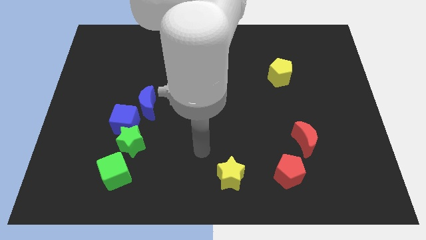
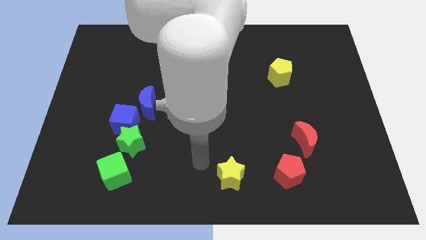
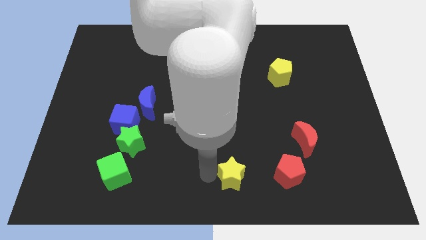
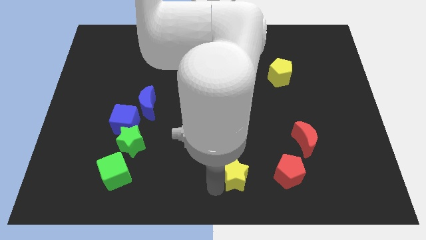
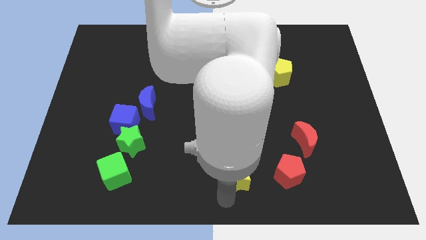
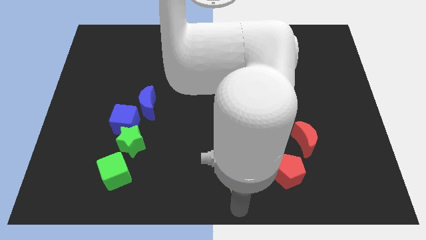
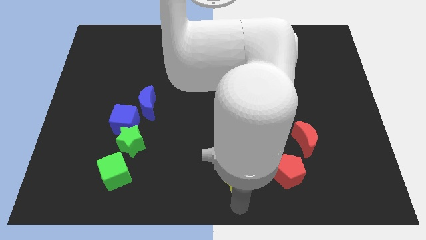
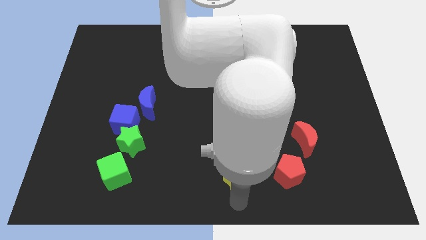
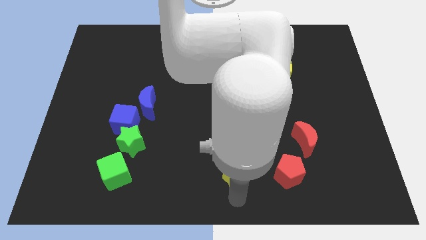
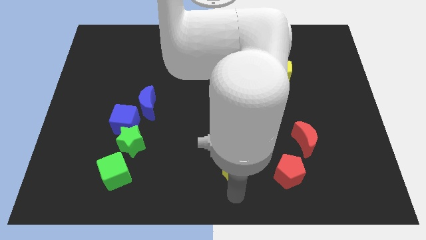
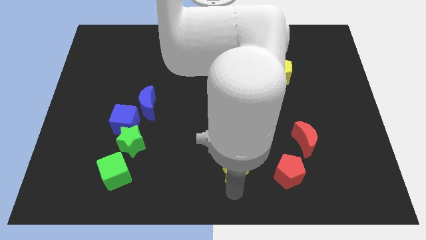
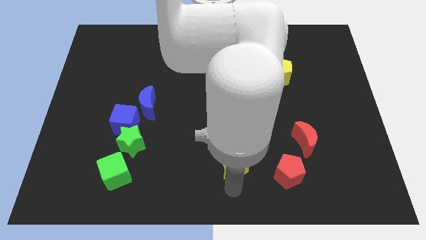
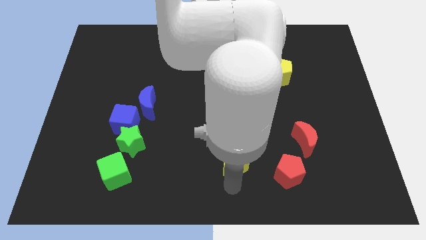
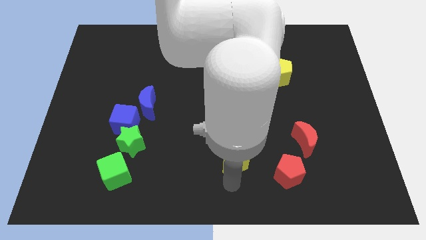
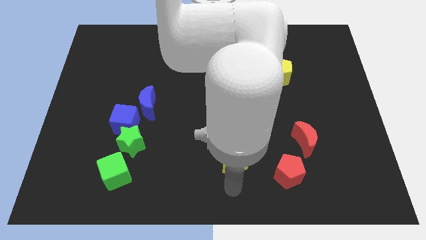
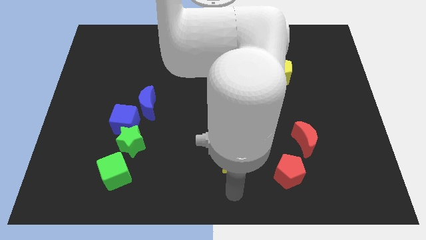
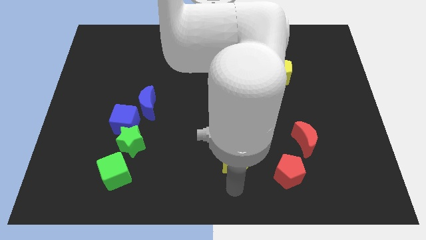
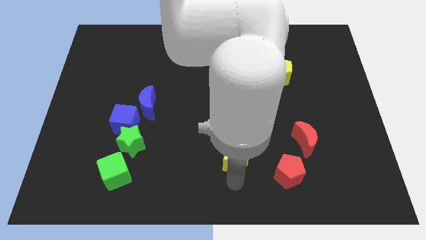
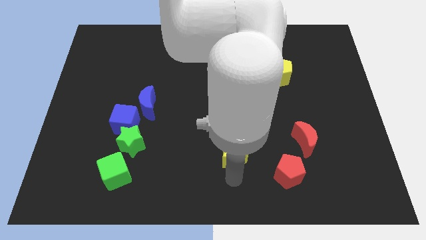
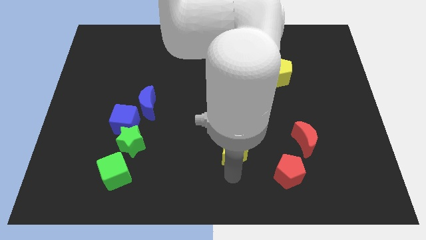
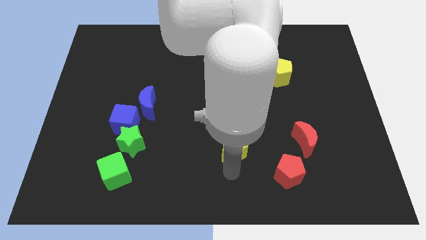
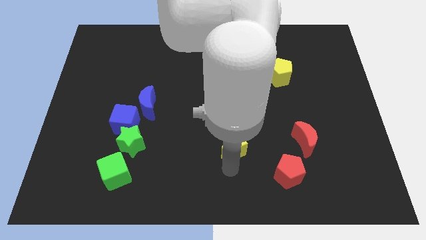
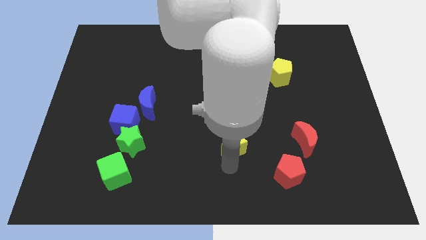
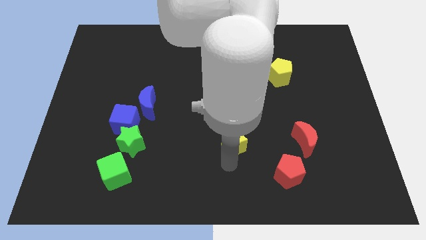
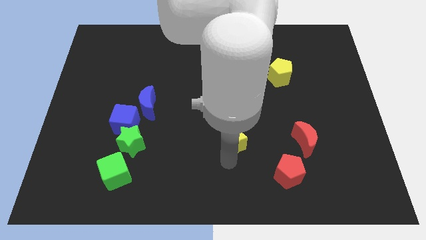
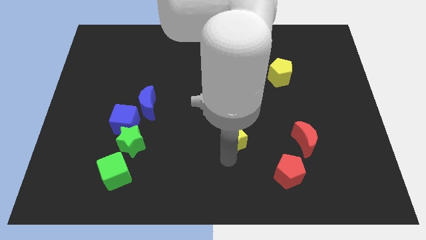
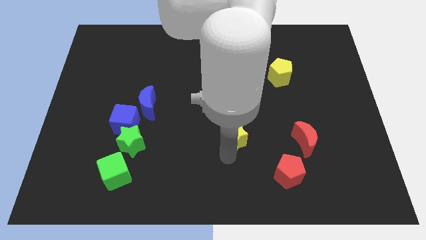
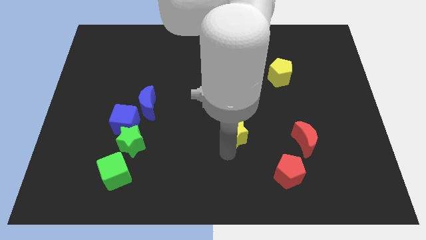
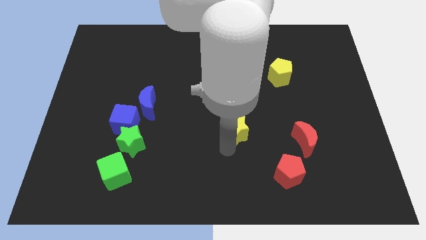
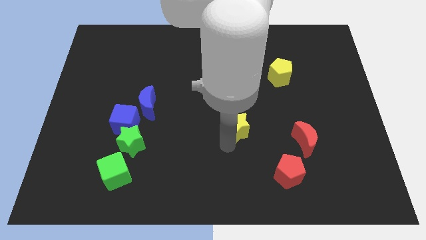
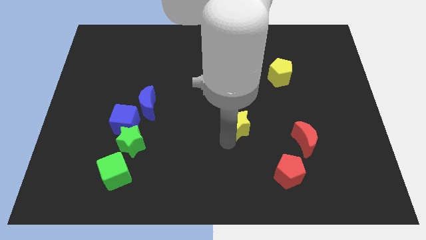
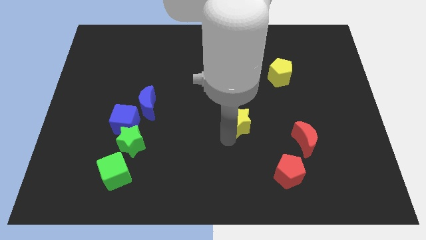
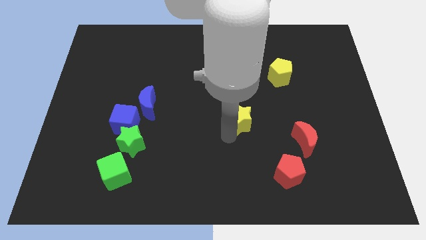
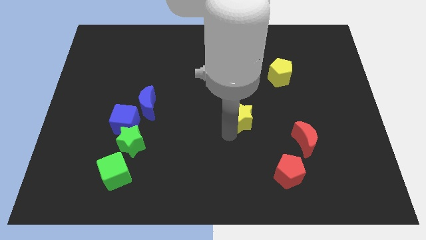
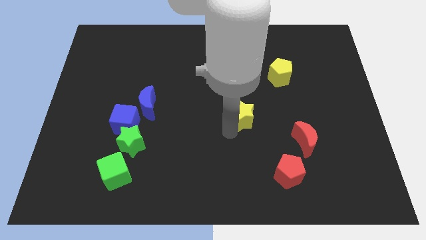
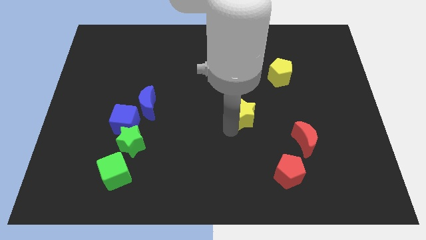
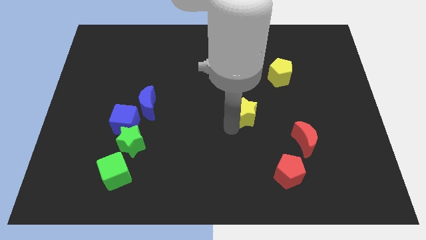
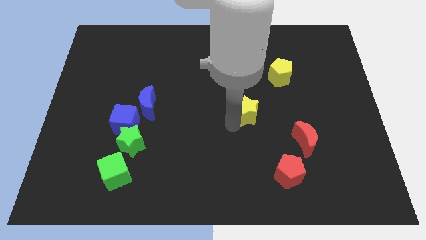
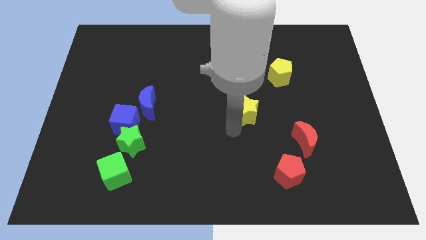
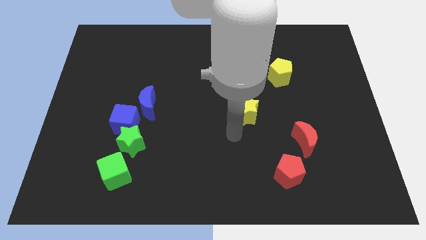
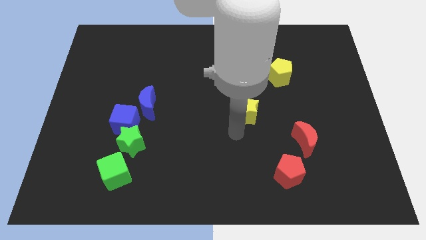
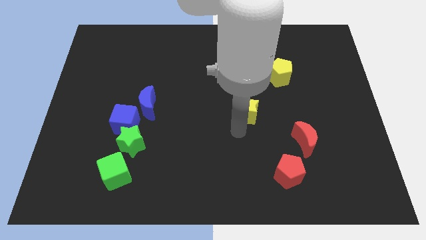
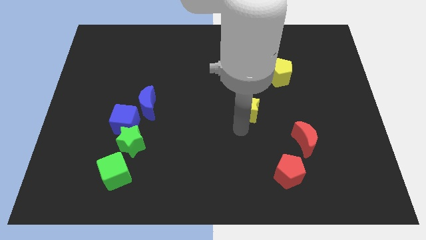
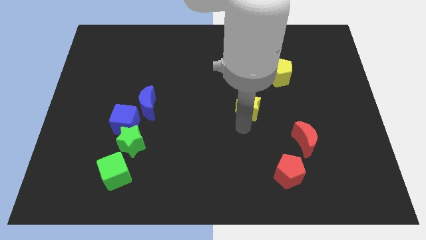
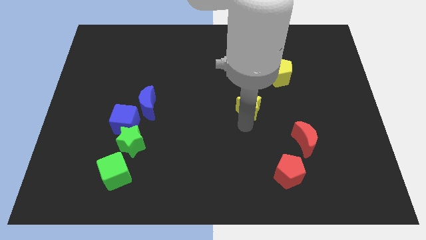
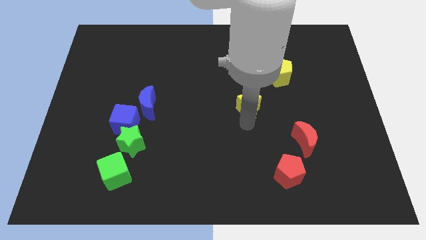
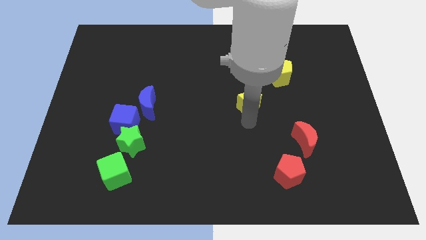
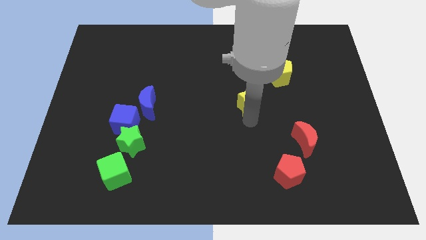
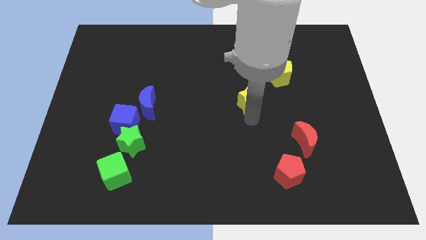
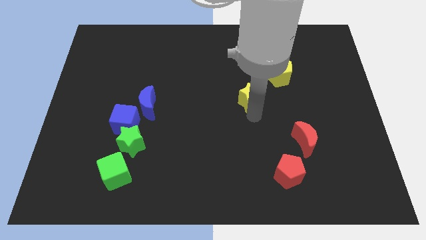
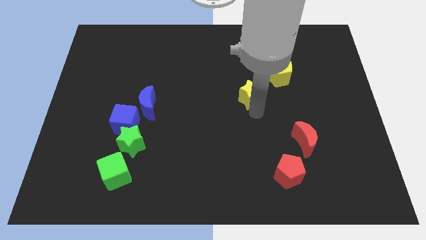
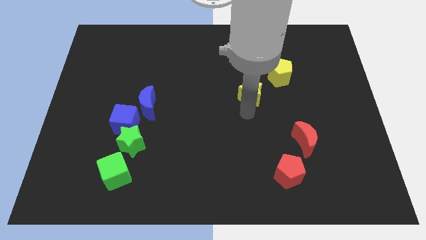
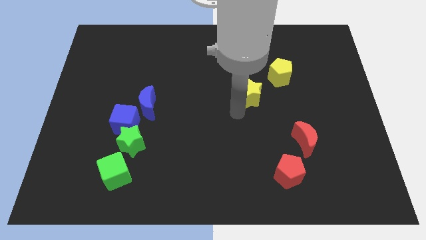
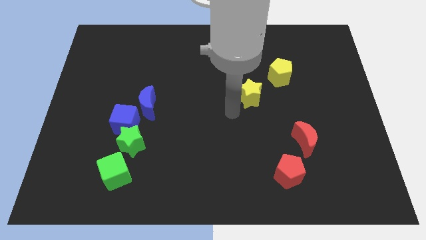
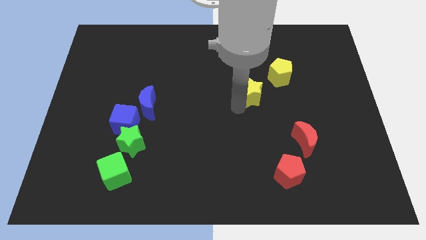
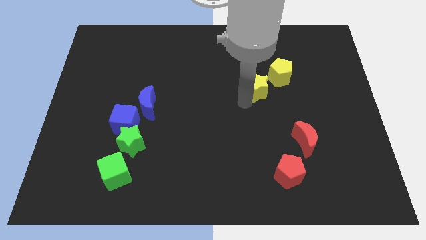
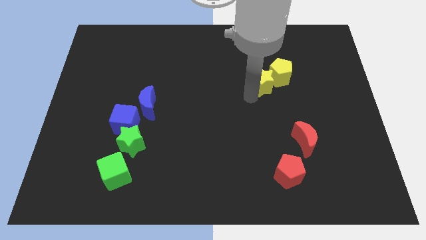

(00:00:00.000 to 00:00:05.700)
move the yellow star close to the yellow pentagon

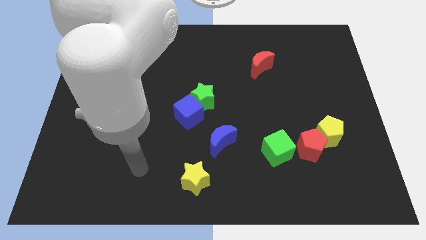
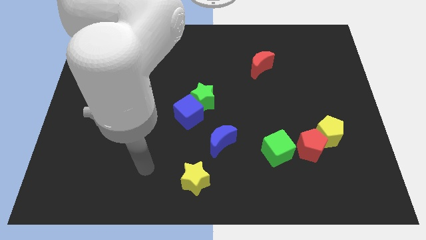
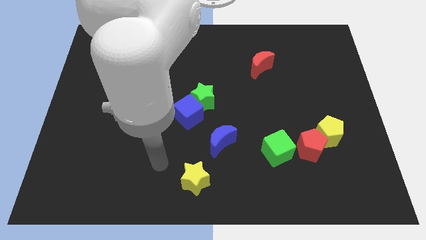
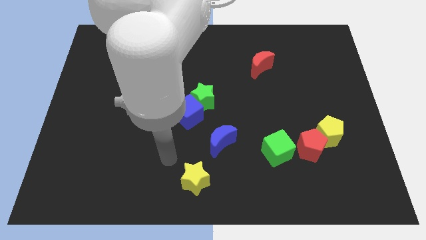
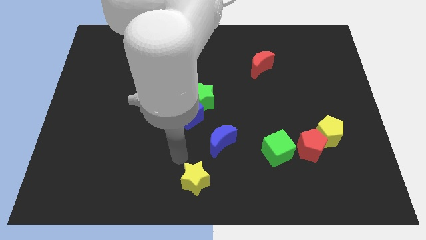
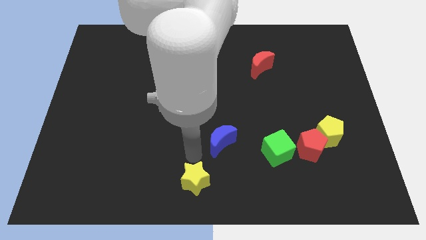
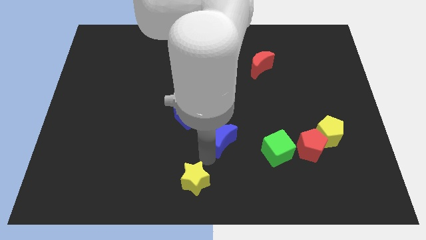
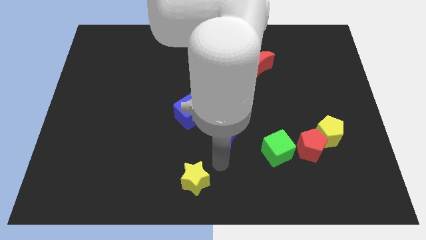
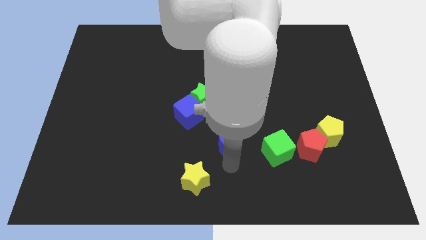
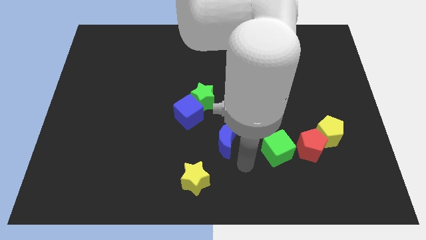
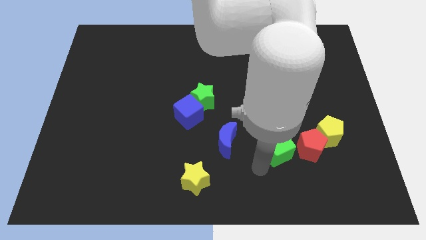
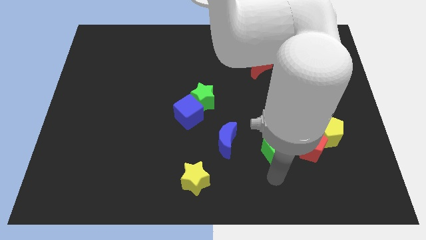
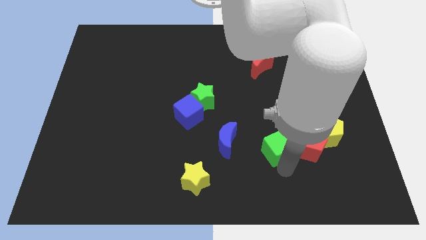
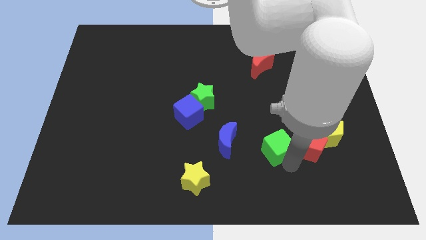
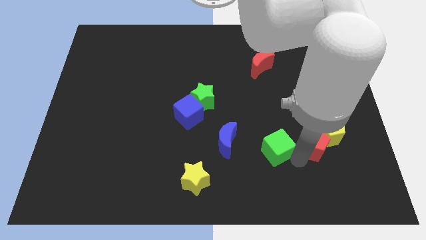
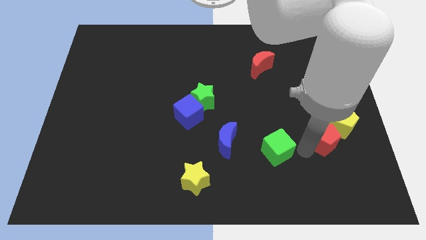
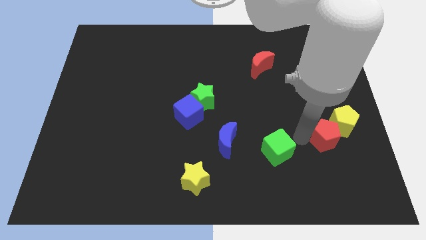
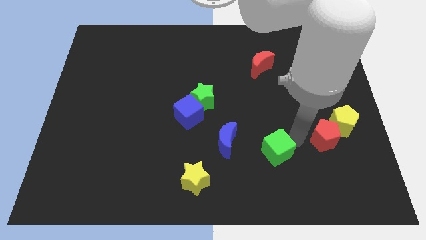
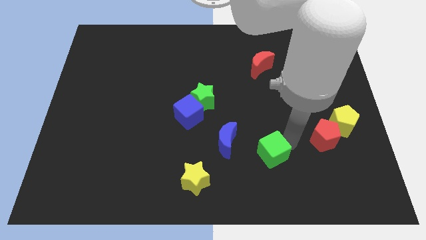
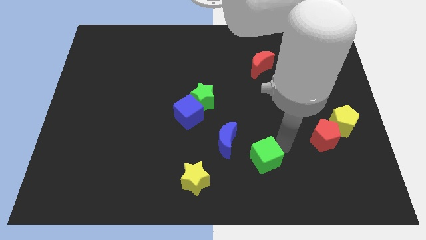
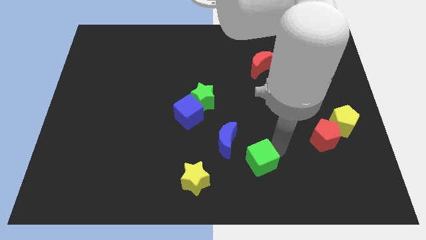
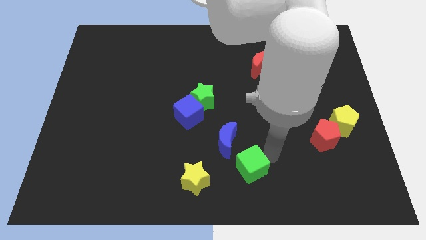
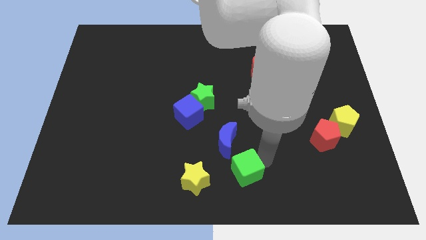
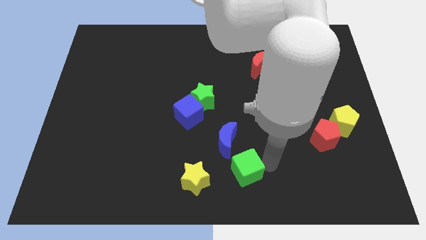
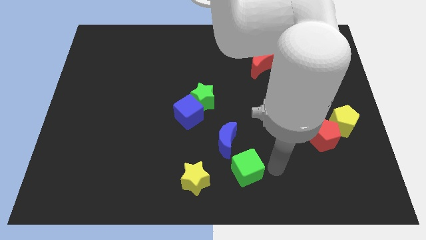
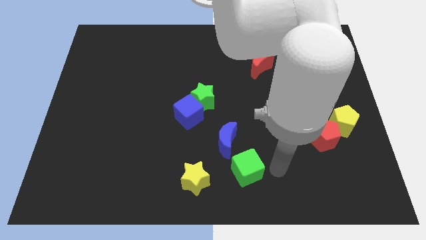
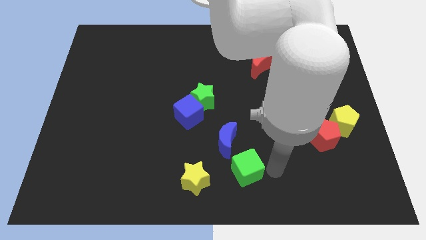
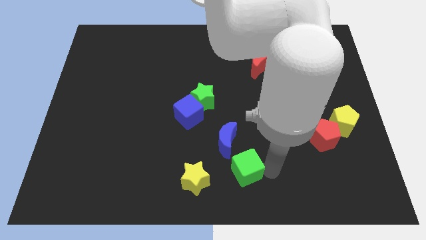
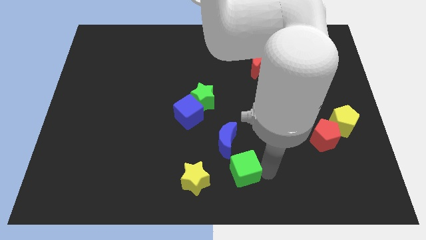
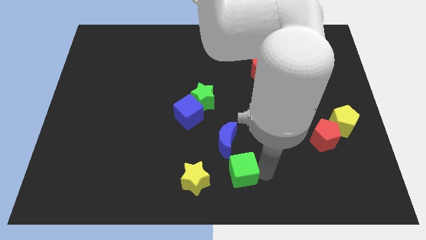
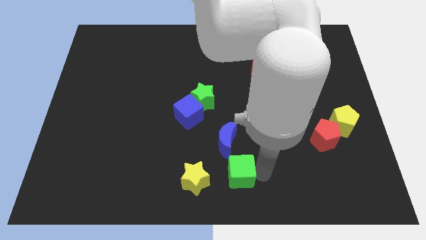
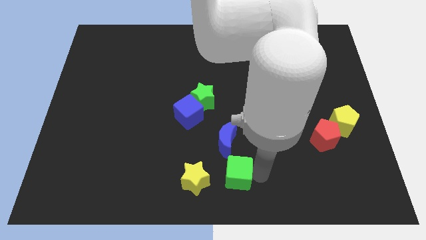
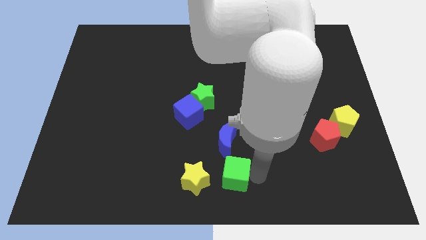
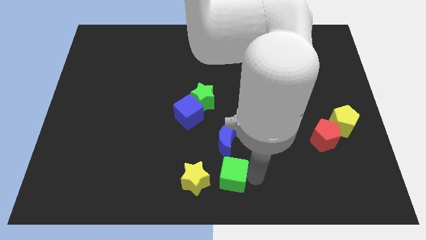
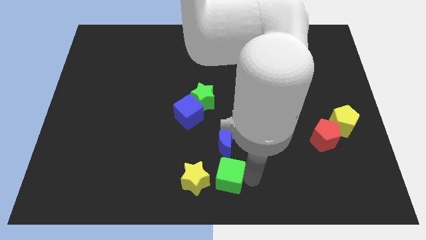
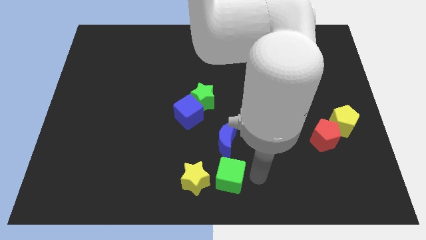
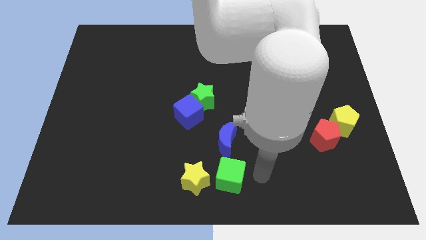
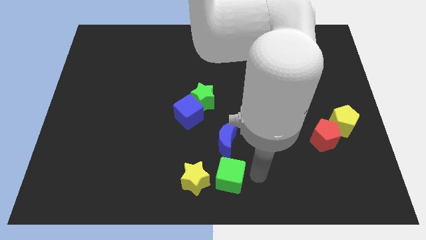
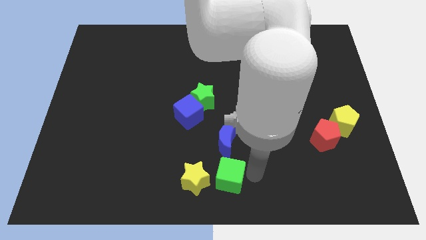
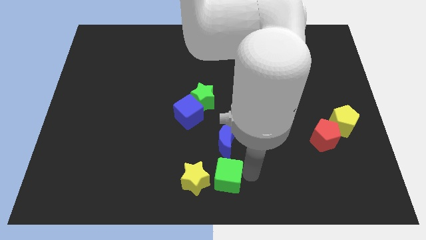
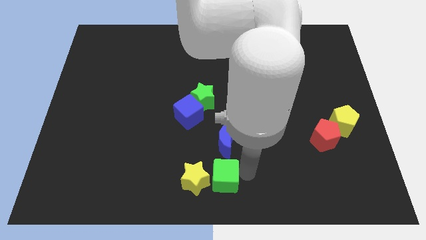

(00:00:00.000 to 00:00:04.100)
put the green cube towards the yellow star
